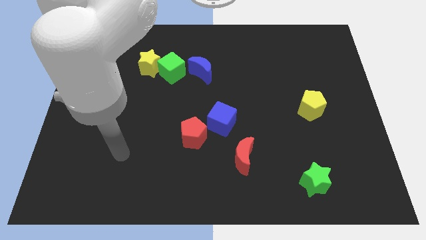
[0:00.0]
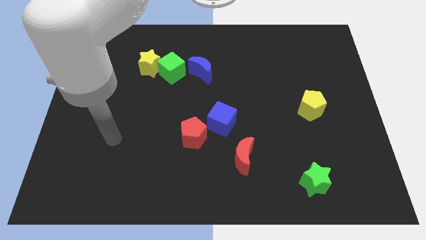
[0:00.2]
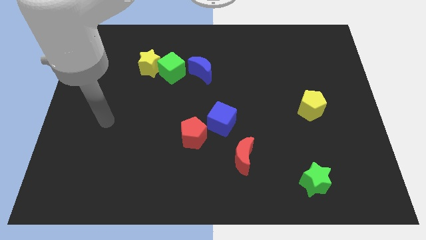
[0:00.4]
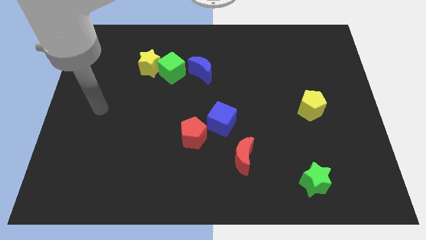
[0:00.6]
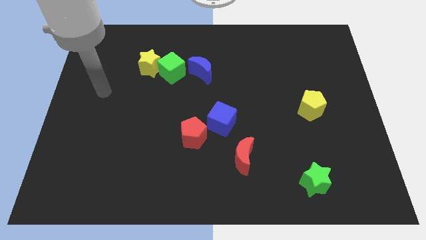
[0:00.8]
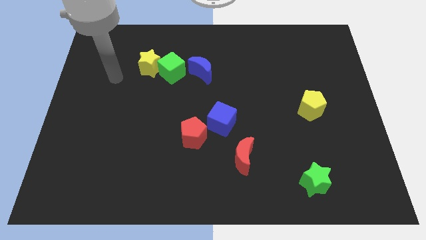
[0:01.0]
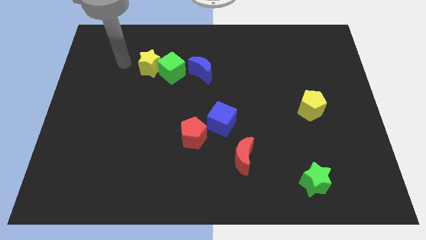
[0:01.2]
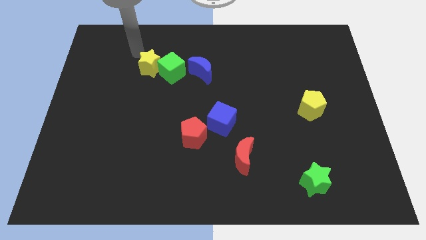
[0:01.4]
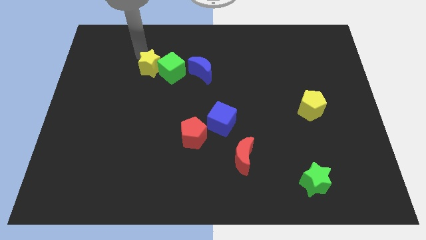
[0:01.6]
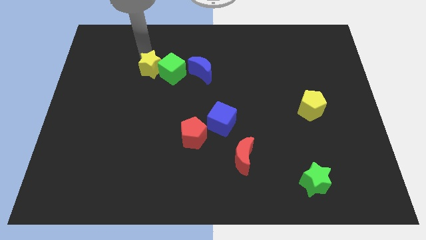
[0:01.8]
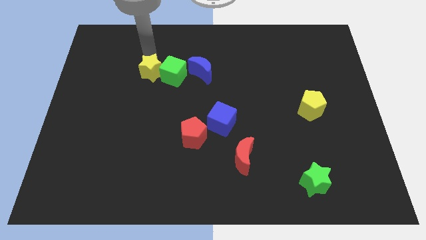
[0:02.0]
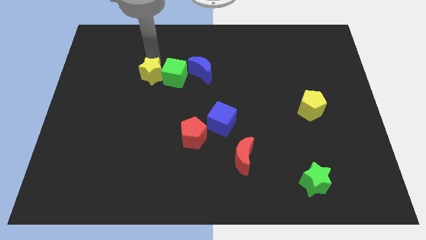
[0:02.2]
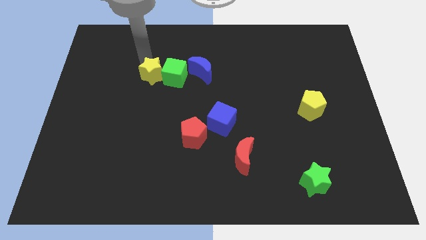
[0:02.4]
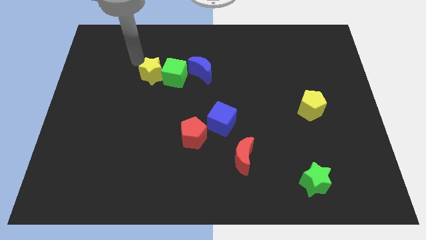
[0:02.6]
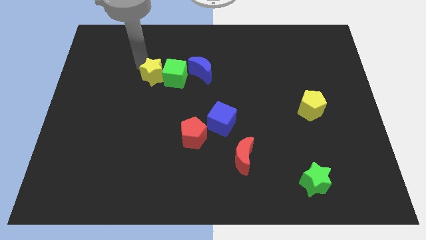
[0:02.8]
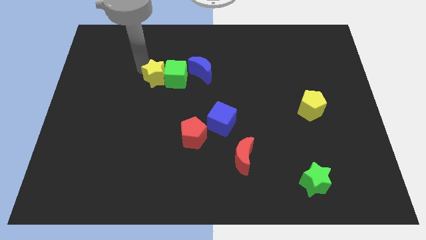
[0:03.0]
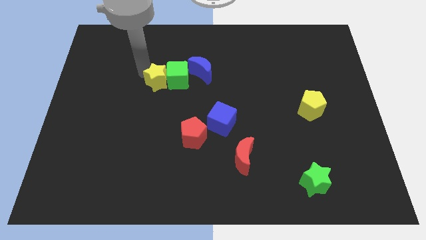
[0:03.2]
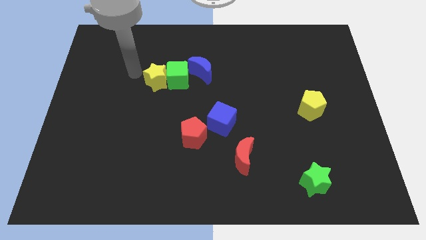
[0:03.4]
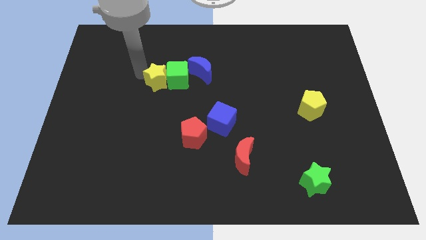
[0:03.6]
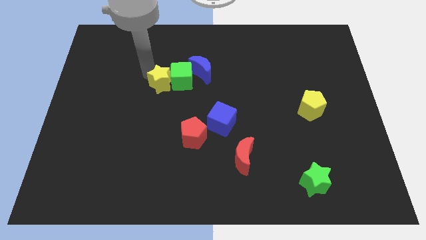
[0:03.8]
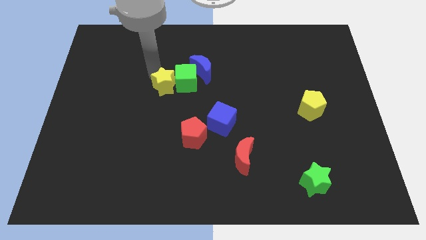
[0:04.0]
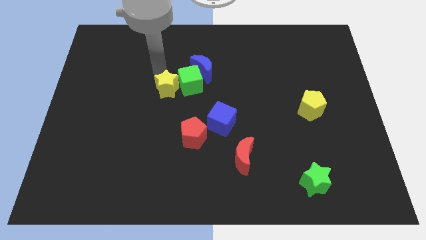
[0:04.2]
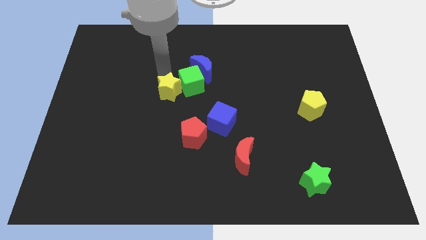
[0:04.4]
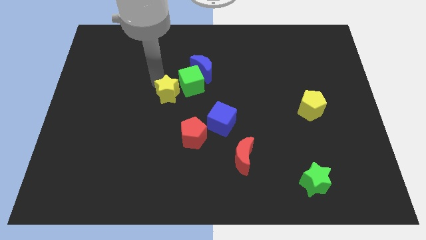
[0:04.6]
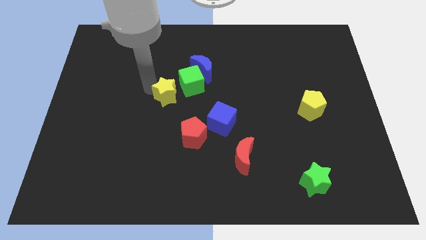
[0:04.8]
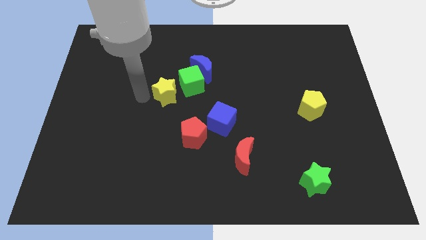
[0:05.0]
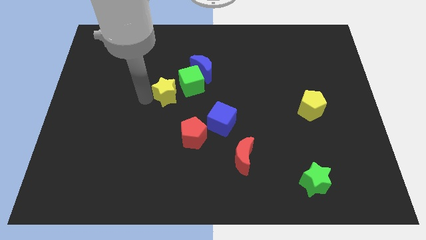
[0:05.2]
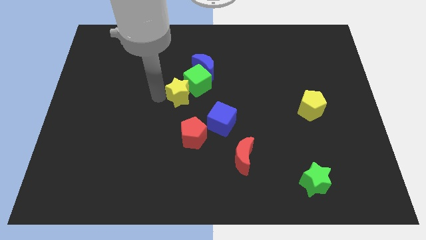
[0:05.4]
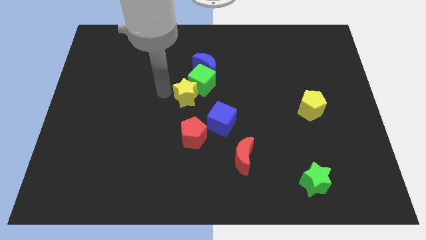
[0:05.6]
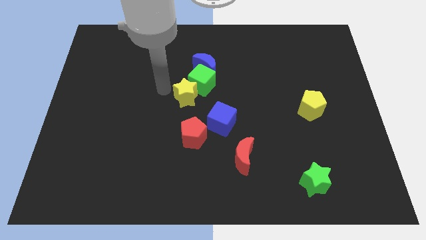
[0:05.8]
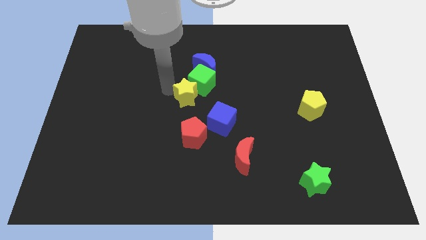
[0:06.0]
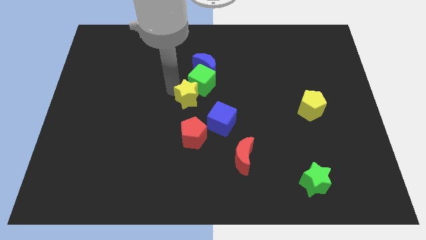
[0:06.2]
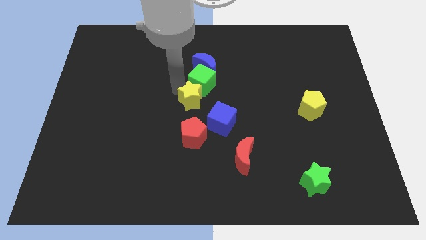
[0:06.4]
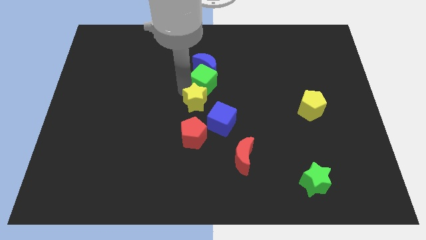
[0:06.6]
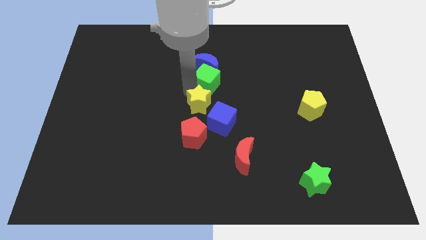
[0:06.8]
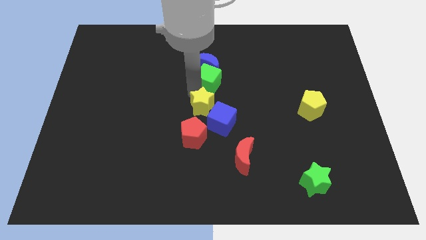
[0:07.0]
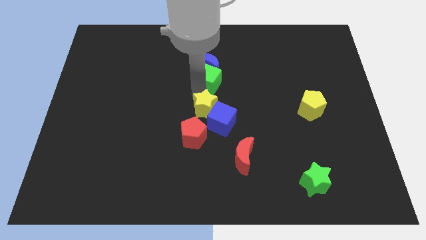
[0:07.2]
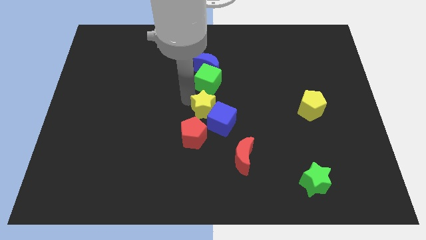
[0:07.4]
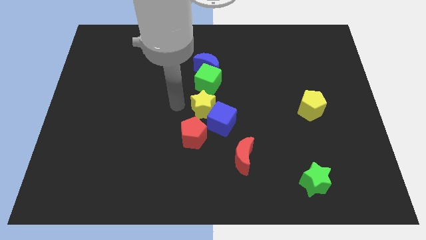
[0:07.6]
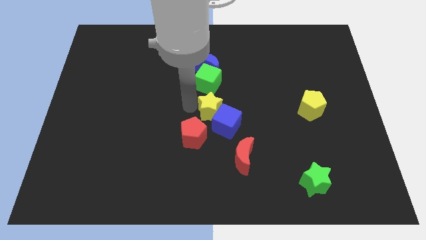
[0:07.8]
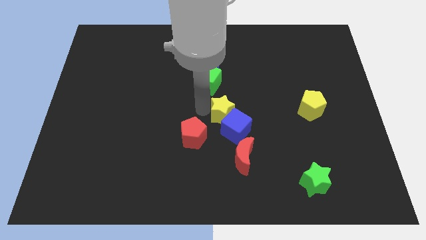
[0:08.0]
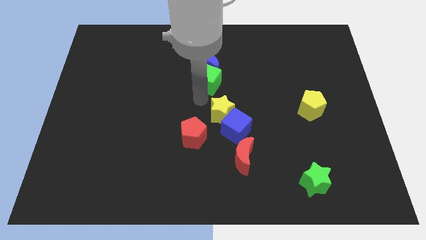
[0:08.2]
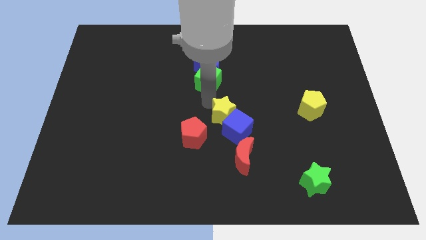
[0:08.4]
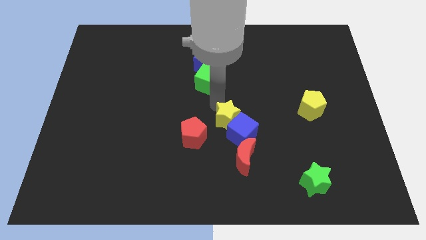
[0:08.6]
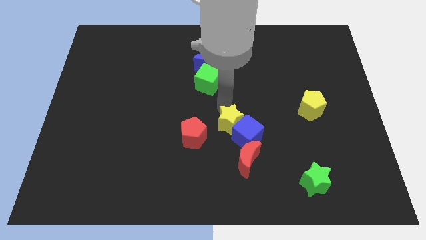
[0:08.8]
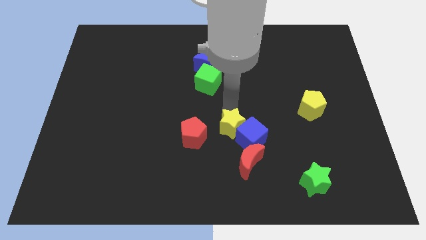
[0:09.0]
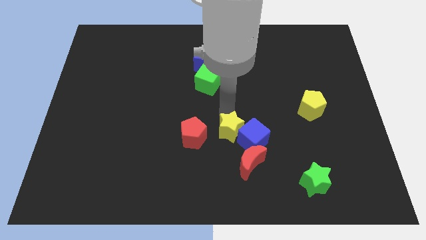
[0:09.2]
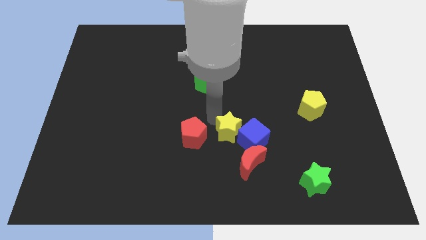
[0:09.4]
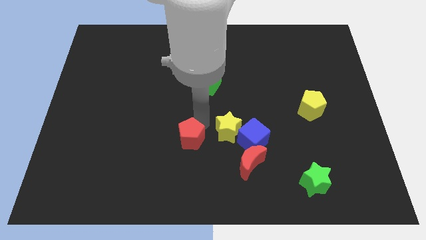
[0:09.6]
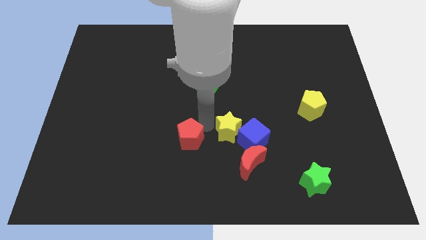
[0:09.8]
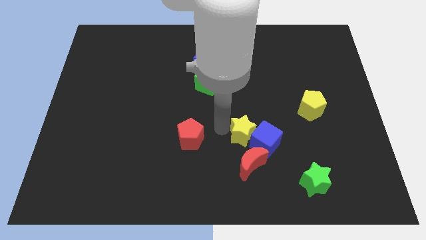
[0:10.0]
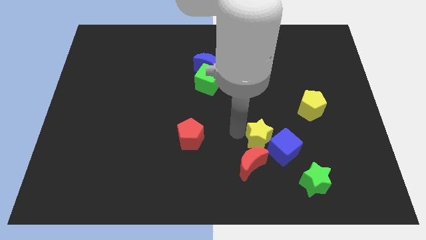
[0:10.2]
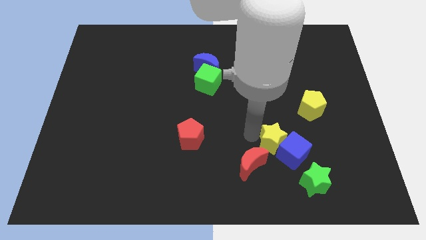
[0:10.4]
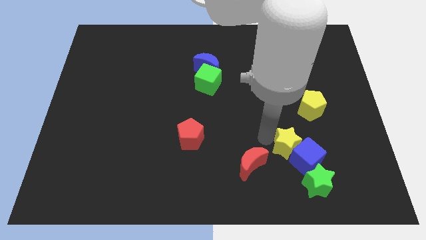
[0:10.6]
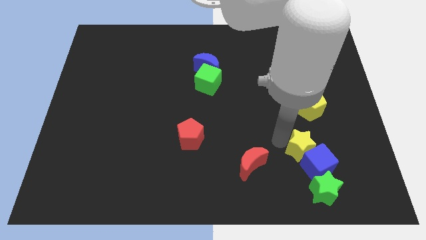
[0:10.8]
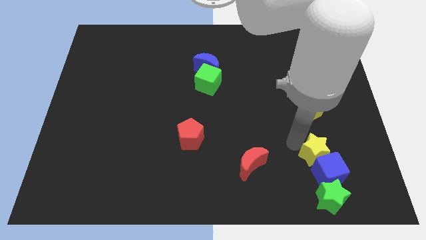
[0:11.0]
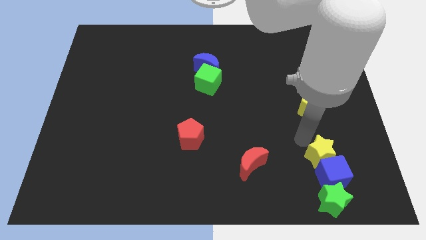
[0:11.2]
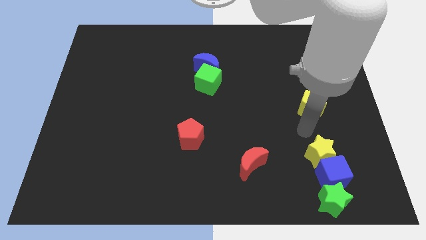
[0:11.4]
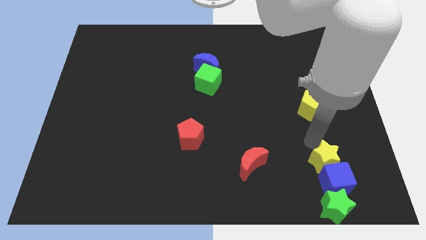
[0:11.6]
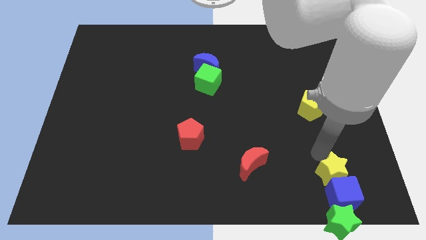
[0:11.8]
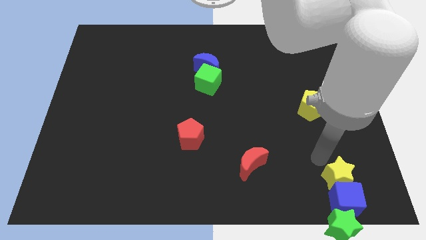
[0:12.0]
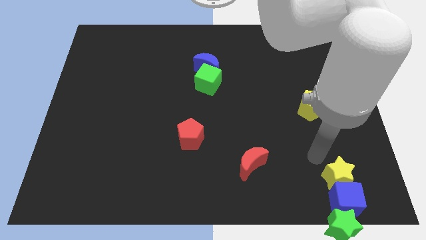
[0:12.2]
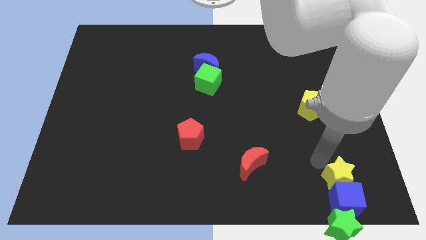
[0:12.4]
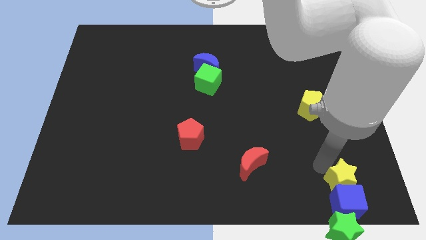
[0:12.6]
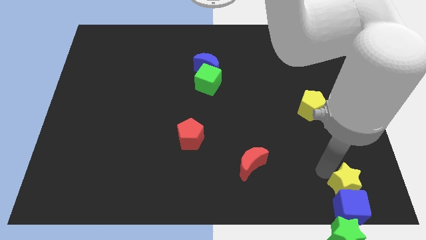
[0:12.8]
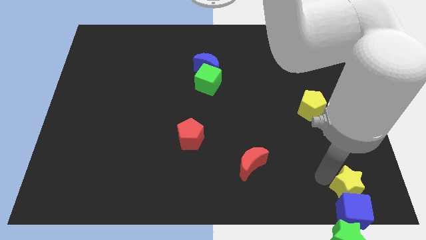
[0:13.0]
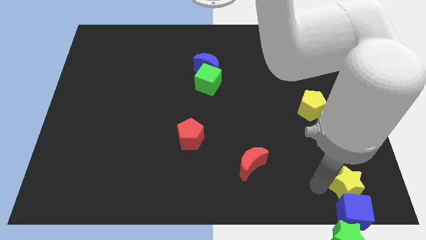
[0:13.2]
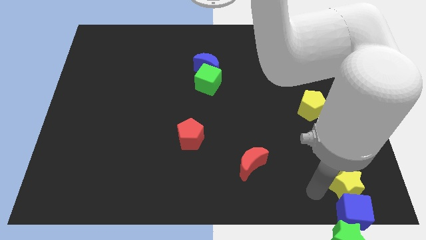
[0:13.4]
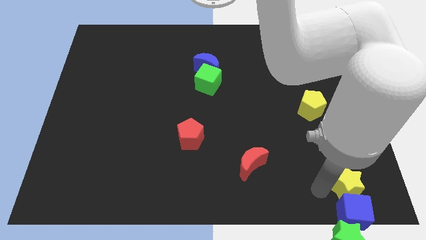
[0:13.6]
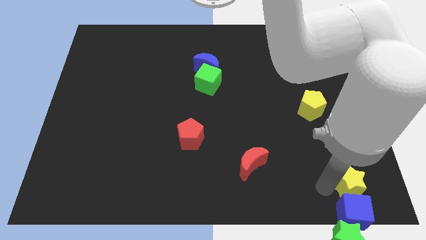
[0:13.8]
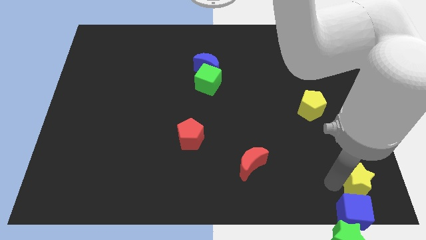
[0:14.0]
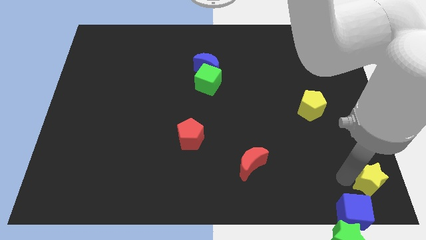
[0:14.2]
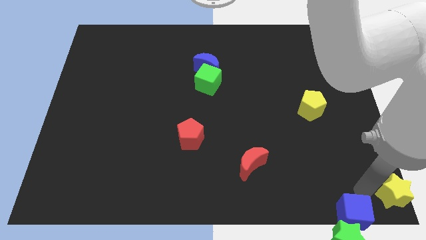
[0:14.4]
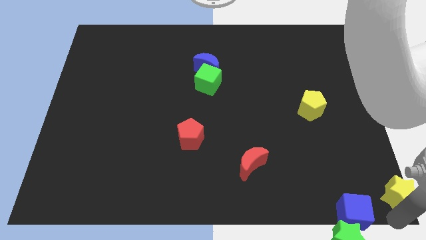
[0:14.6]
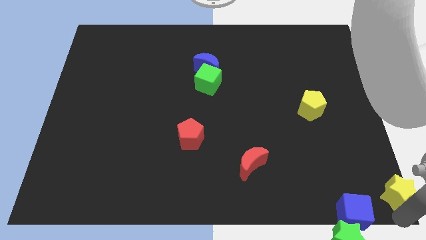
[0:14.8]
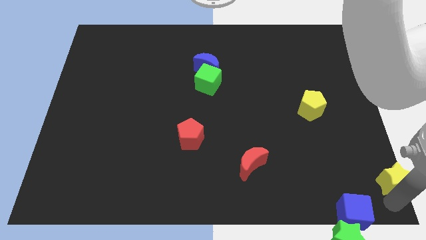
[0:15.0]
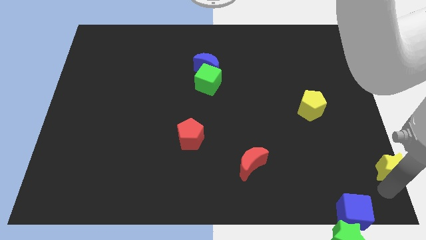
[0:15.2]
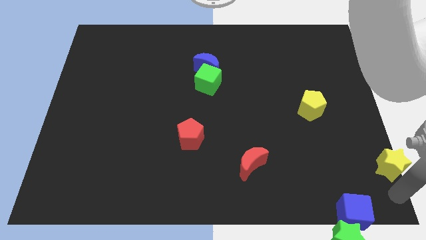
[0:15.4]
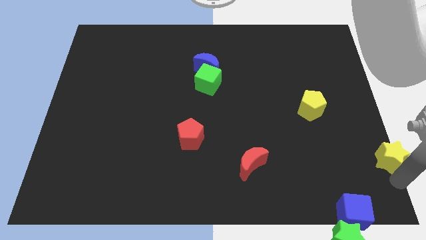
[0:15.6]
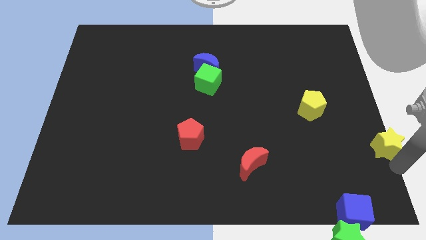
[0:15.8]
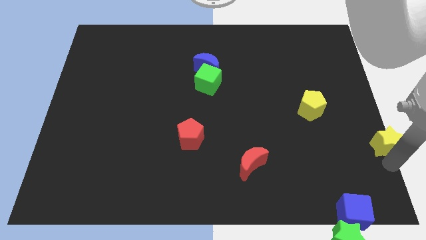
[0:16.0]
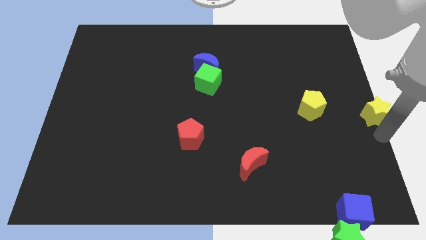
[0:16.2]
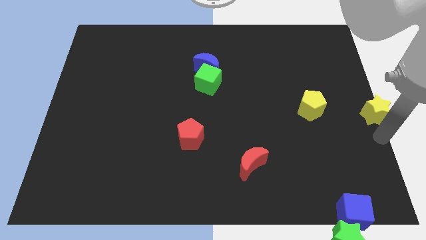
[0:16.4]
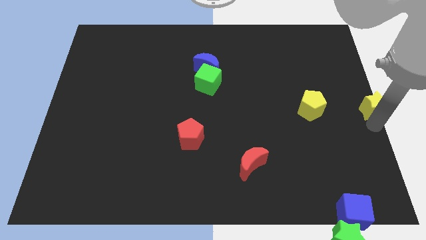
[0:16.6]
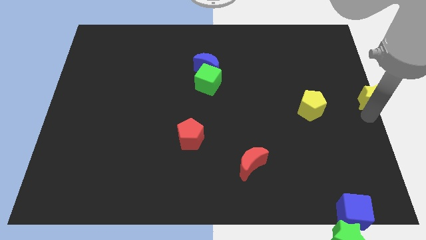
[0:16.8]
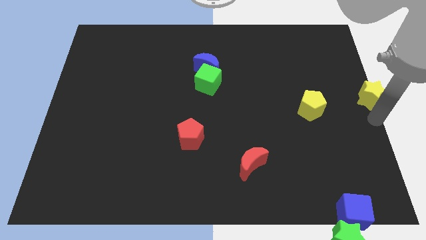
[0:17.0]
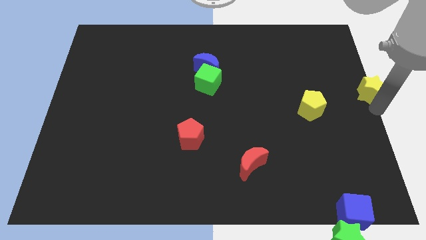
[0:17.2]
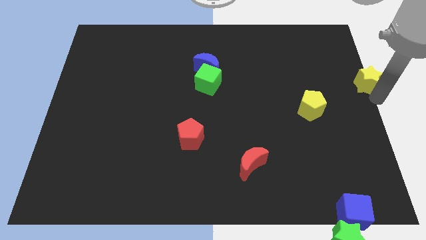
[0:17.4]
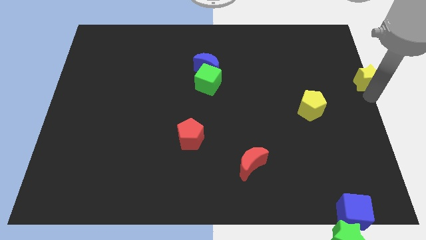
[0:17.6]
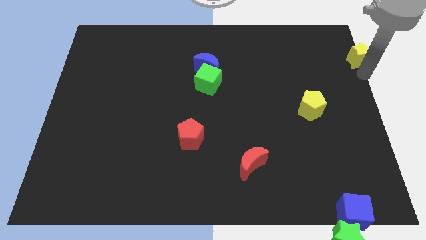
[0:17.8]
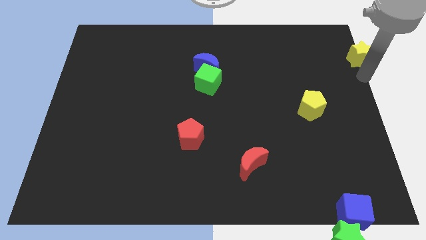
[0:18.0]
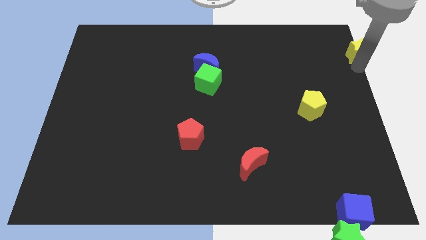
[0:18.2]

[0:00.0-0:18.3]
put the yellow star to the top right corner
